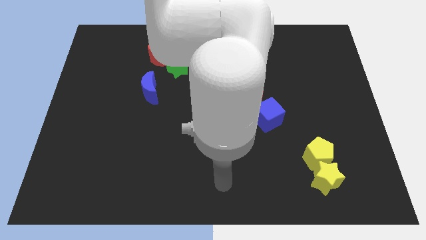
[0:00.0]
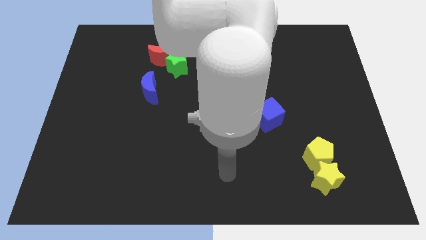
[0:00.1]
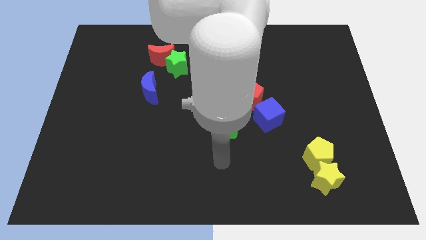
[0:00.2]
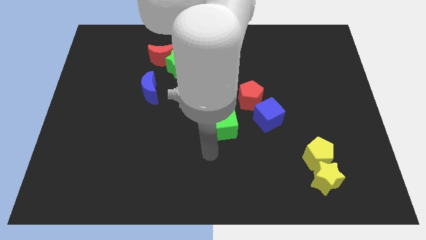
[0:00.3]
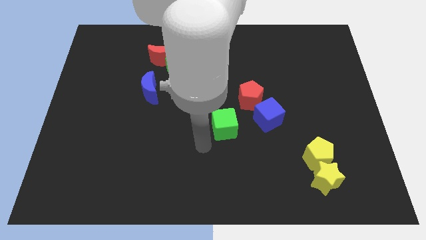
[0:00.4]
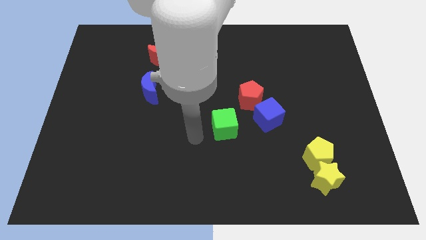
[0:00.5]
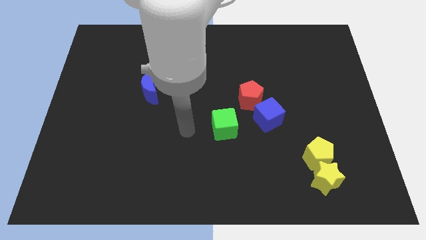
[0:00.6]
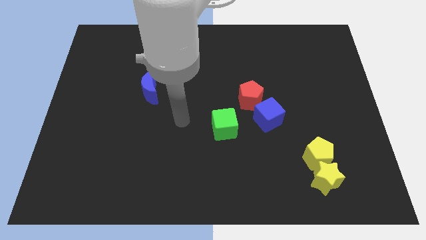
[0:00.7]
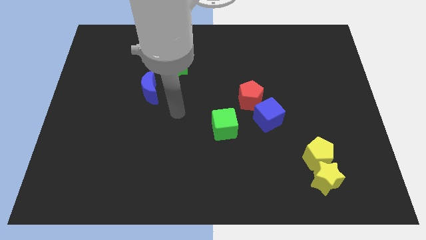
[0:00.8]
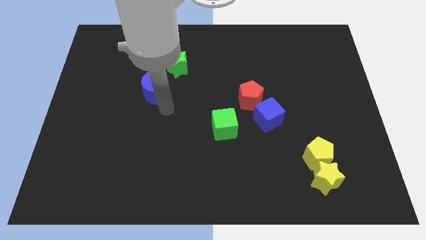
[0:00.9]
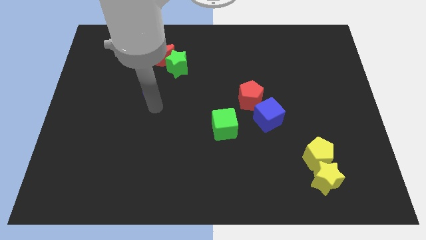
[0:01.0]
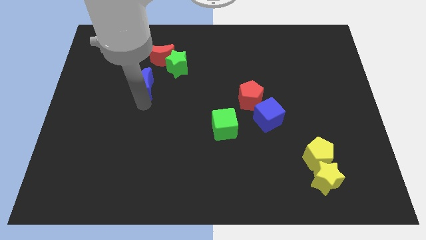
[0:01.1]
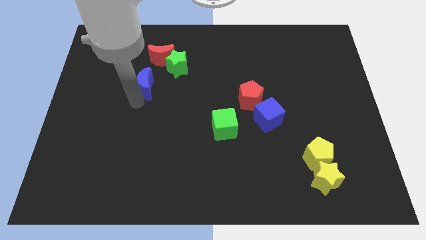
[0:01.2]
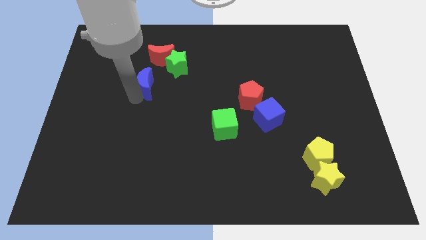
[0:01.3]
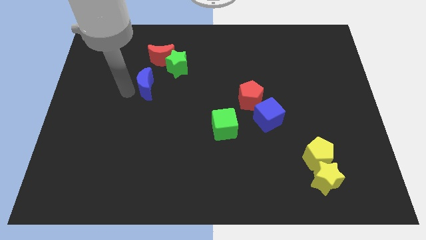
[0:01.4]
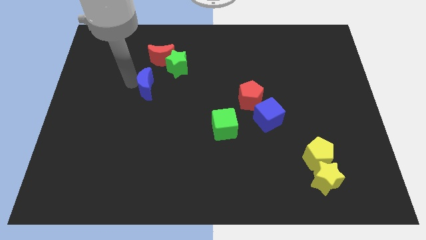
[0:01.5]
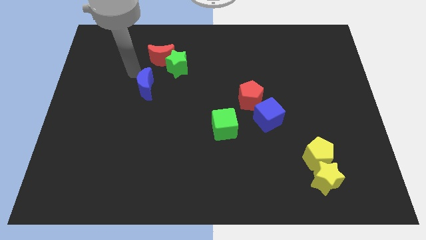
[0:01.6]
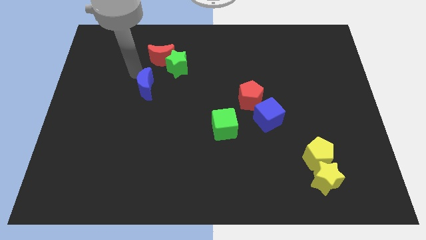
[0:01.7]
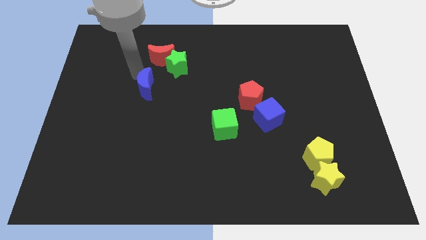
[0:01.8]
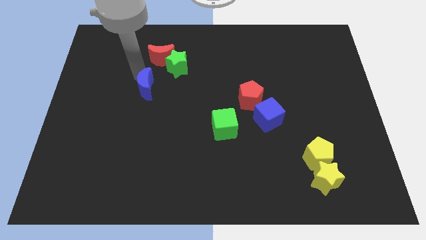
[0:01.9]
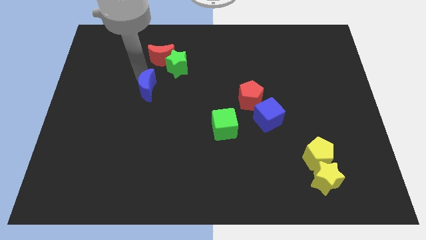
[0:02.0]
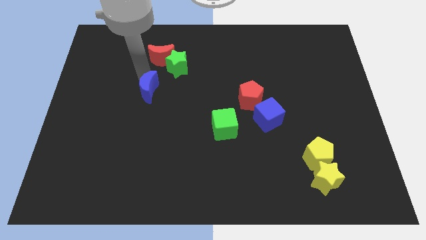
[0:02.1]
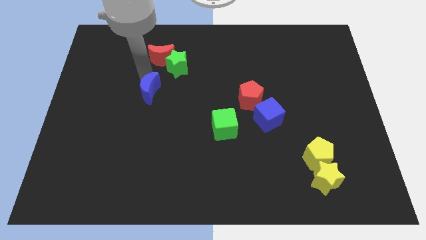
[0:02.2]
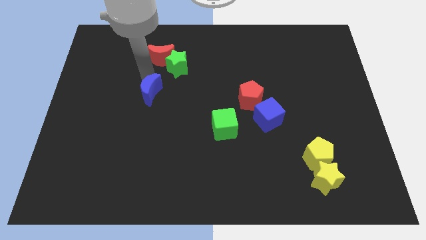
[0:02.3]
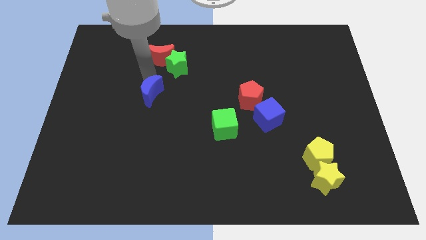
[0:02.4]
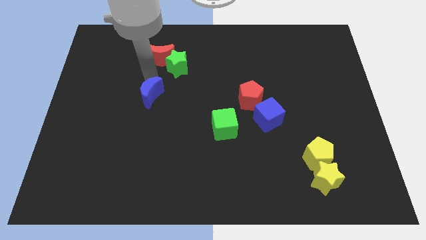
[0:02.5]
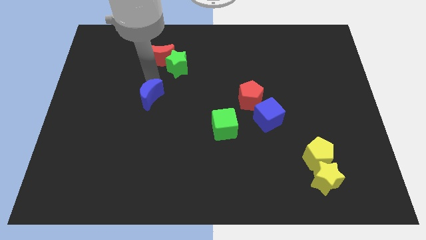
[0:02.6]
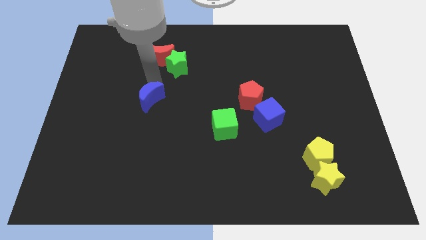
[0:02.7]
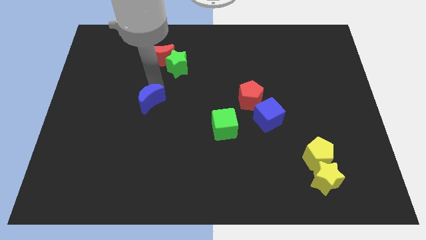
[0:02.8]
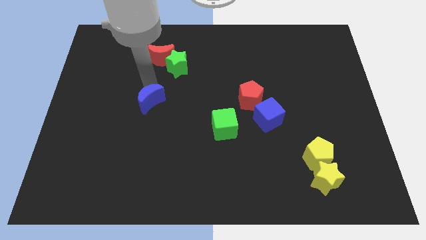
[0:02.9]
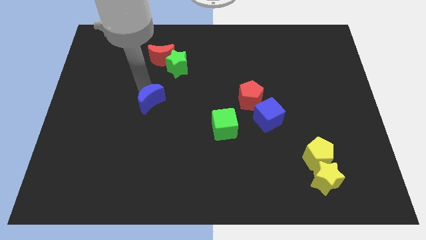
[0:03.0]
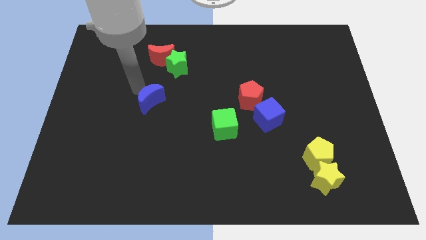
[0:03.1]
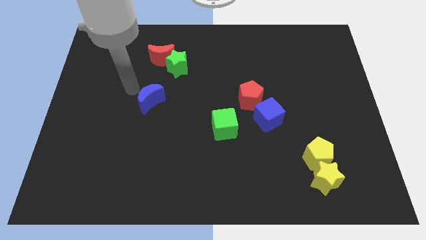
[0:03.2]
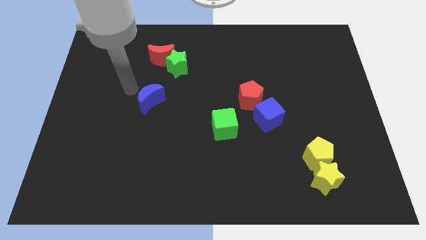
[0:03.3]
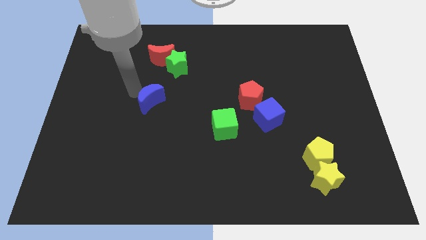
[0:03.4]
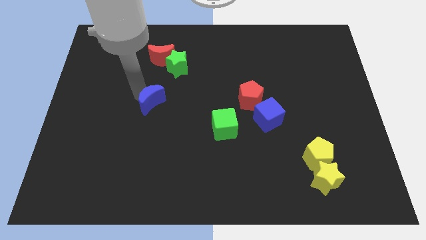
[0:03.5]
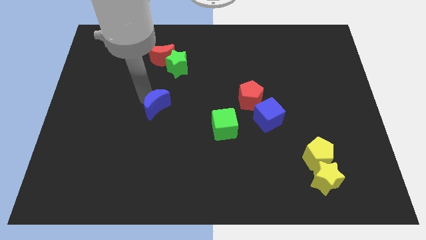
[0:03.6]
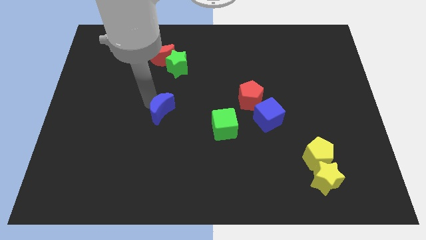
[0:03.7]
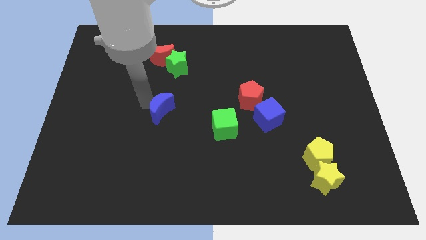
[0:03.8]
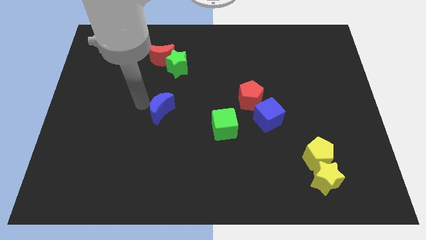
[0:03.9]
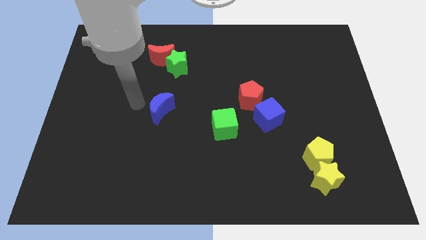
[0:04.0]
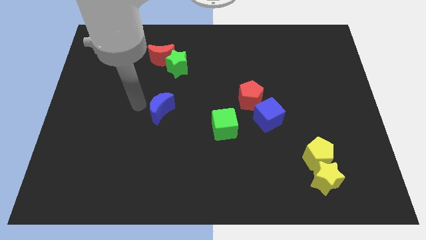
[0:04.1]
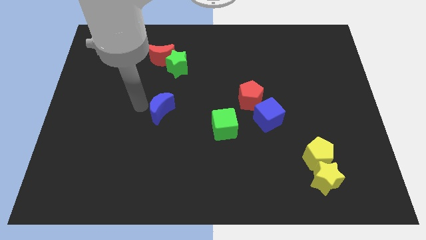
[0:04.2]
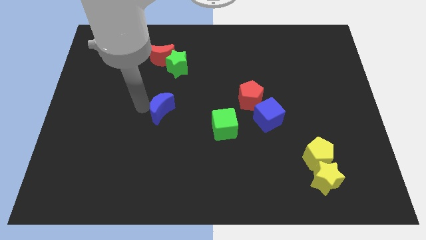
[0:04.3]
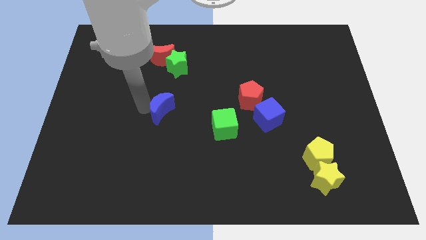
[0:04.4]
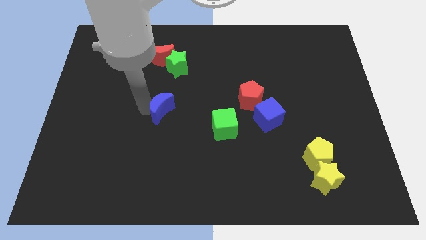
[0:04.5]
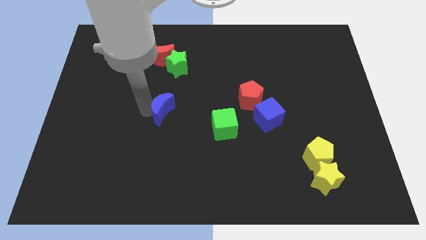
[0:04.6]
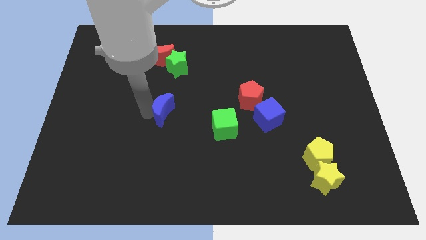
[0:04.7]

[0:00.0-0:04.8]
slightly move the blue moon diagonally downwards and to the right

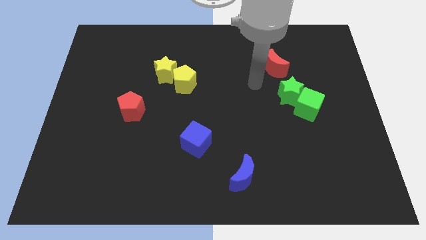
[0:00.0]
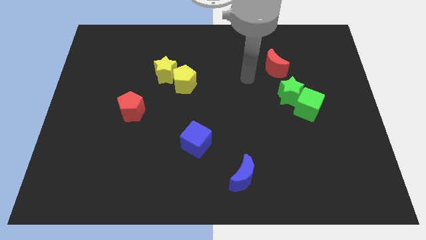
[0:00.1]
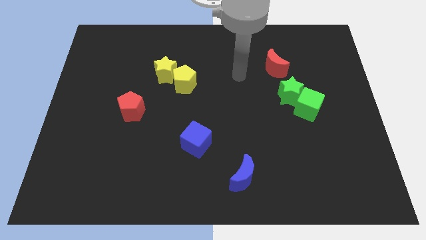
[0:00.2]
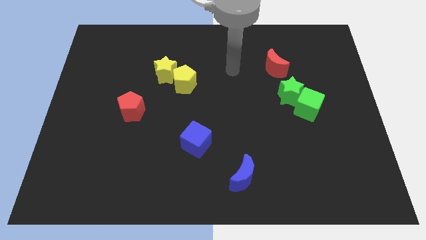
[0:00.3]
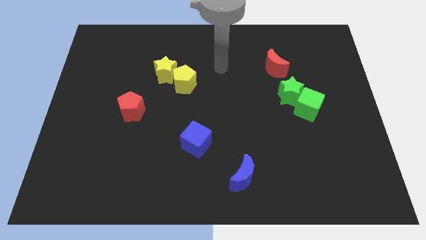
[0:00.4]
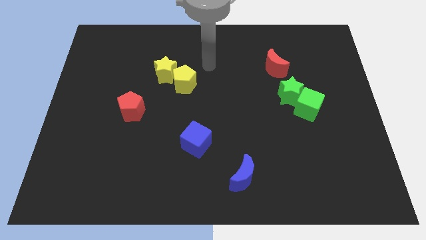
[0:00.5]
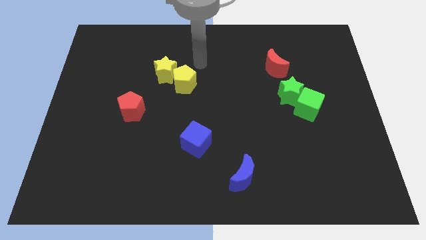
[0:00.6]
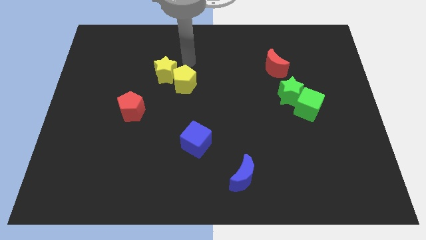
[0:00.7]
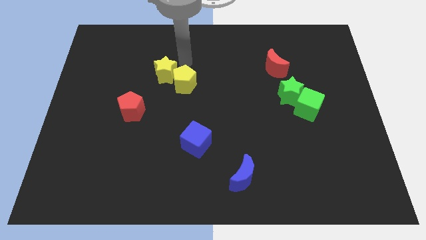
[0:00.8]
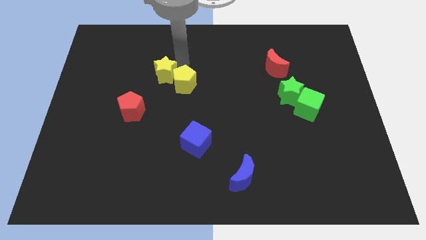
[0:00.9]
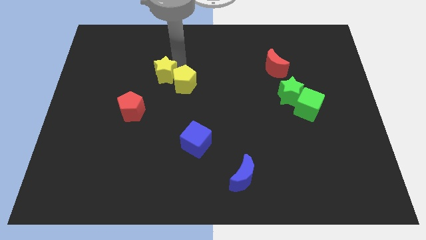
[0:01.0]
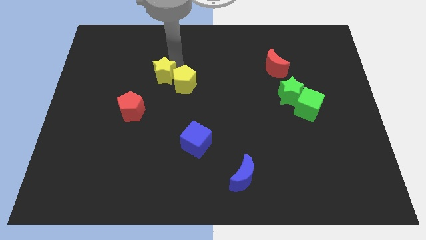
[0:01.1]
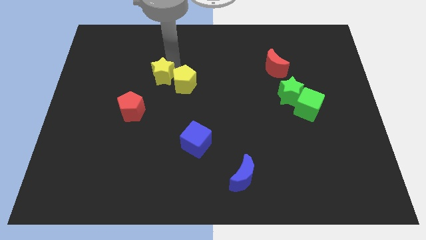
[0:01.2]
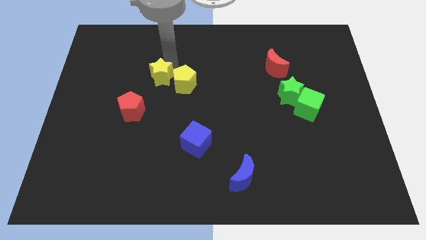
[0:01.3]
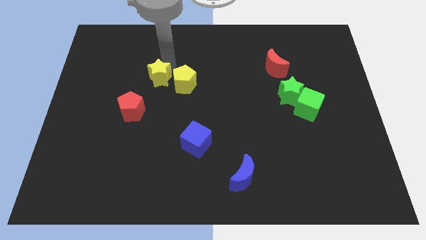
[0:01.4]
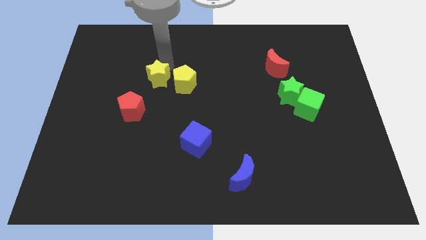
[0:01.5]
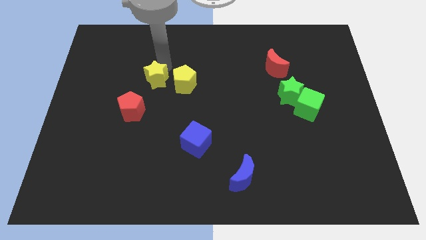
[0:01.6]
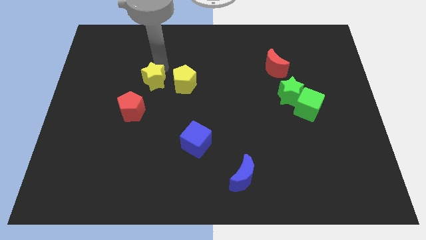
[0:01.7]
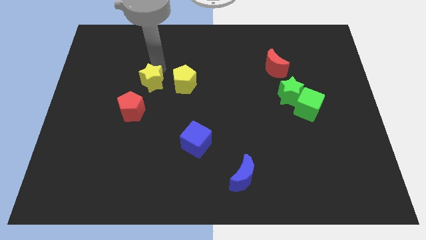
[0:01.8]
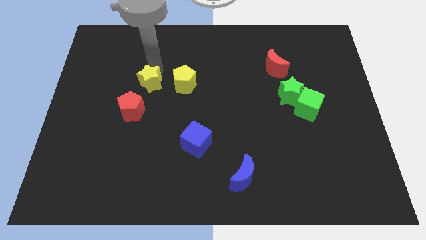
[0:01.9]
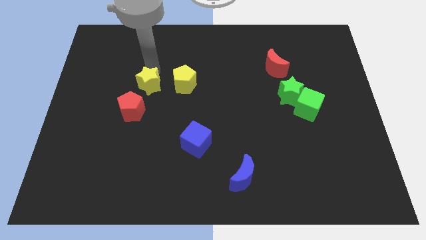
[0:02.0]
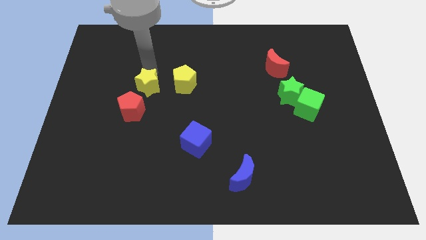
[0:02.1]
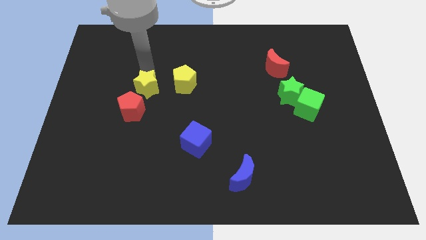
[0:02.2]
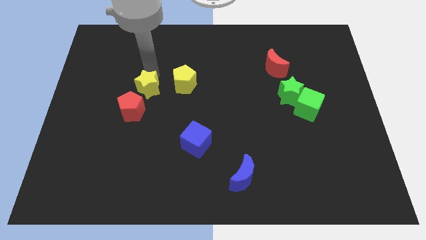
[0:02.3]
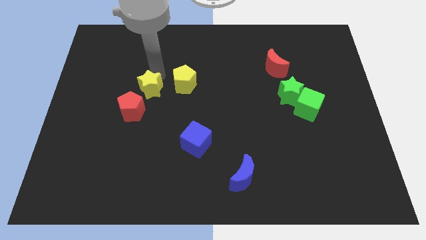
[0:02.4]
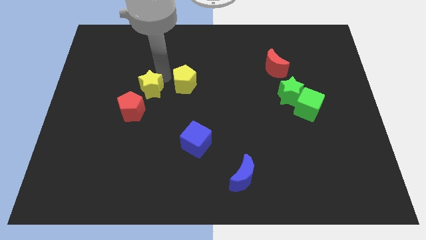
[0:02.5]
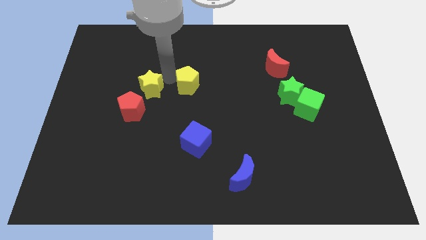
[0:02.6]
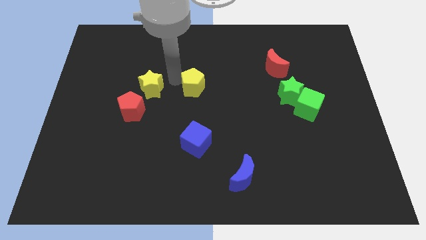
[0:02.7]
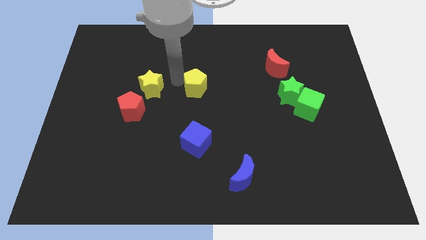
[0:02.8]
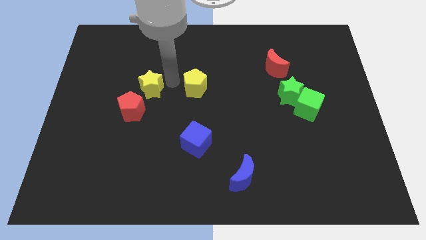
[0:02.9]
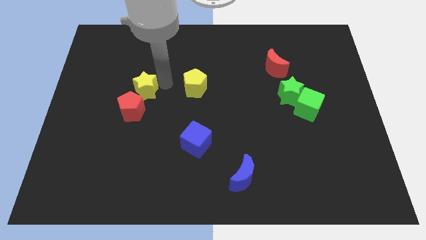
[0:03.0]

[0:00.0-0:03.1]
slightly move the yellow star downwards and left diagonally
